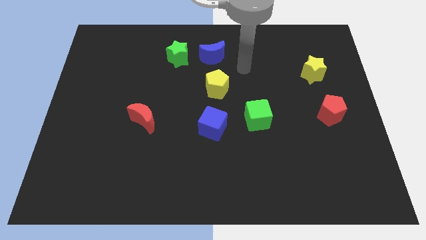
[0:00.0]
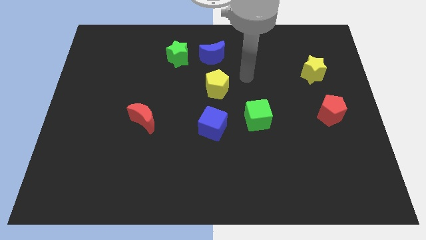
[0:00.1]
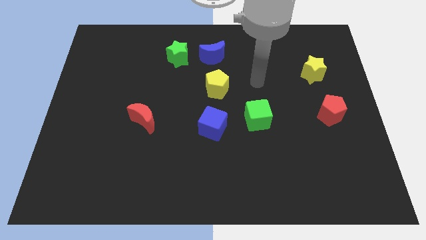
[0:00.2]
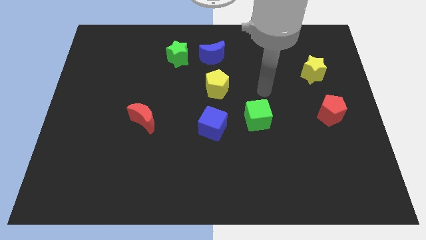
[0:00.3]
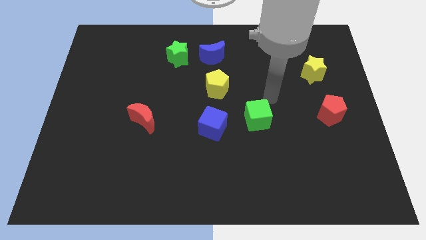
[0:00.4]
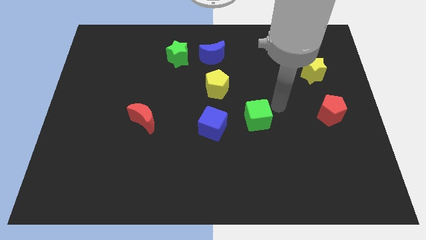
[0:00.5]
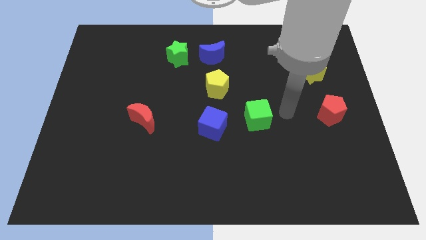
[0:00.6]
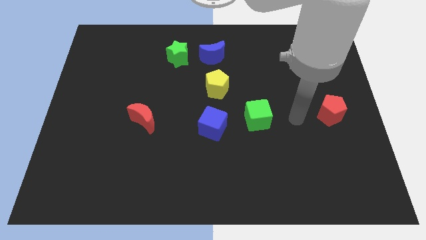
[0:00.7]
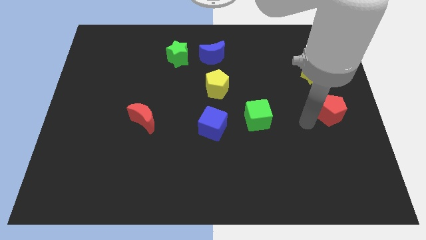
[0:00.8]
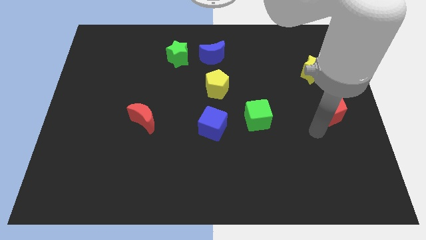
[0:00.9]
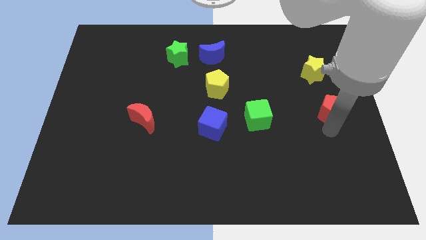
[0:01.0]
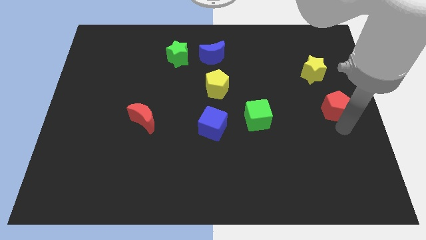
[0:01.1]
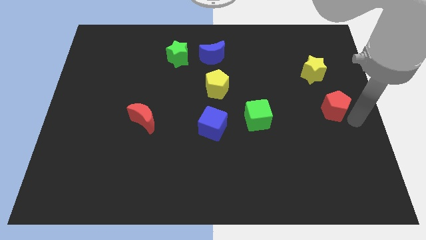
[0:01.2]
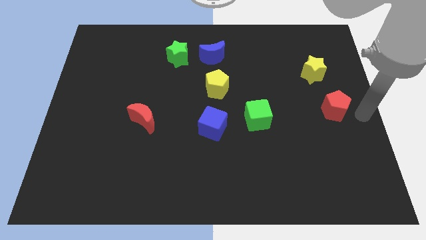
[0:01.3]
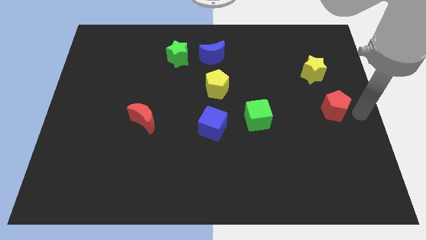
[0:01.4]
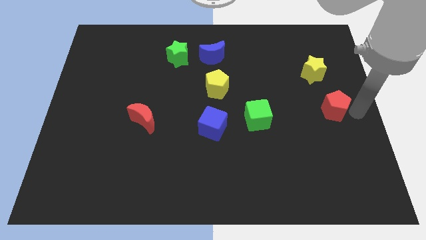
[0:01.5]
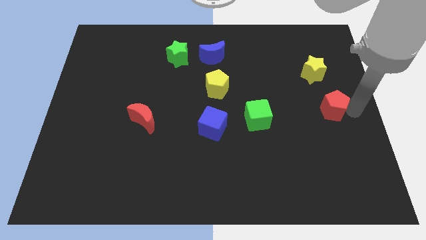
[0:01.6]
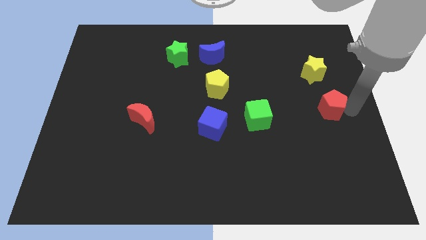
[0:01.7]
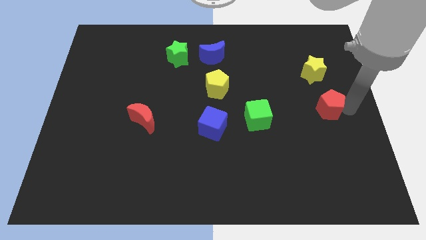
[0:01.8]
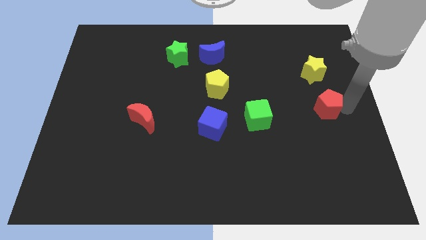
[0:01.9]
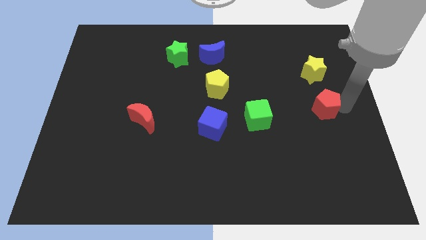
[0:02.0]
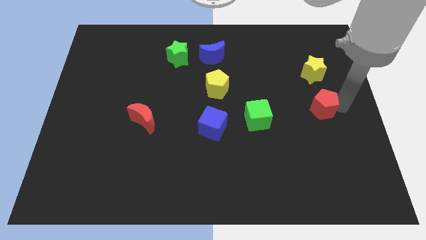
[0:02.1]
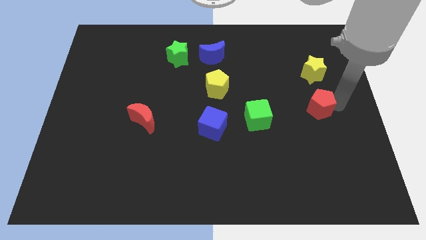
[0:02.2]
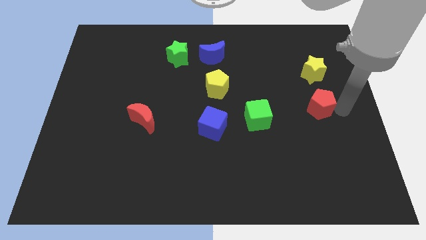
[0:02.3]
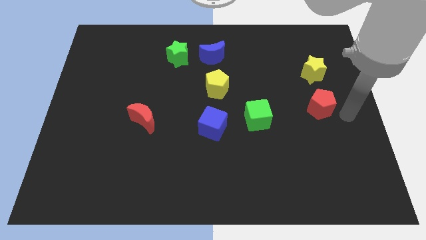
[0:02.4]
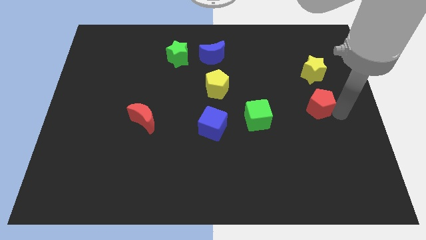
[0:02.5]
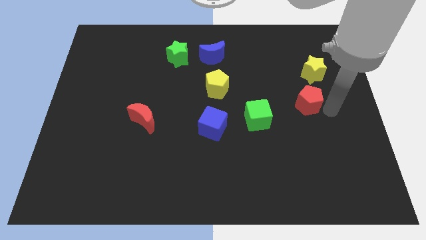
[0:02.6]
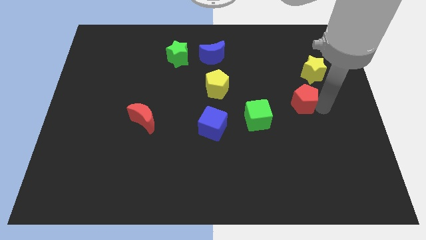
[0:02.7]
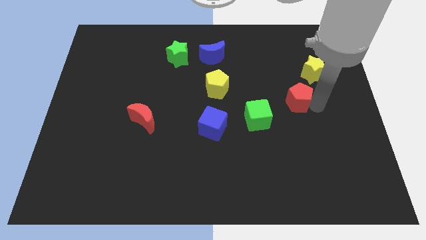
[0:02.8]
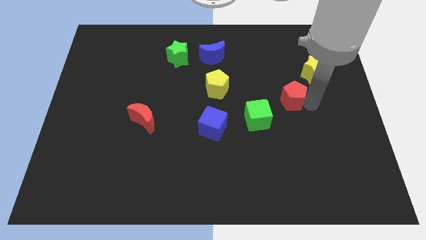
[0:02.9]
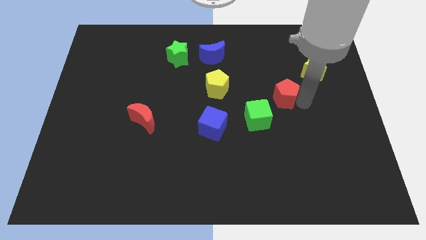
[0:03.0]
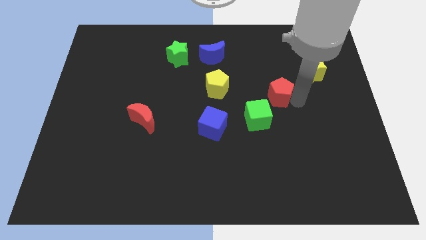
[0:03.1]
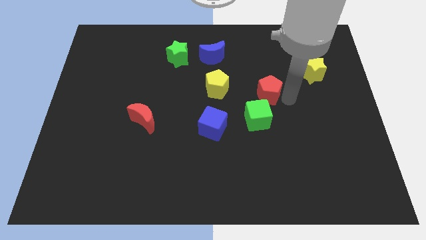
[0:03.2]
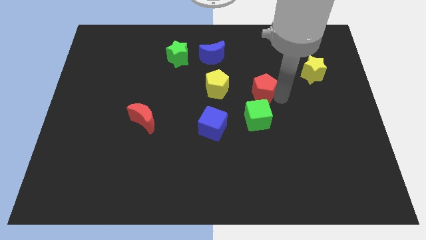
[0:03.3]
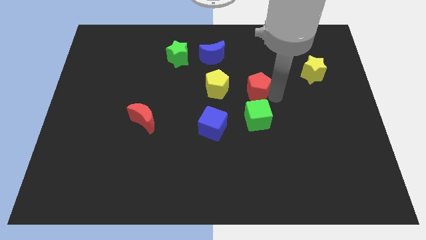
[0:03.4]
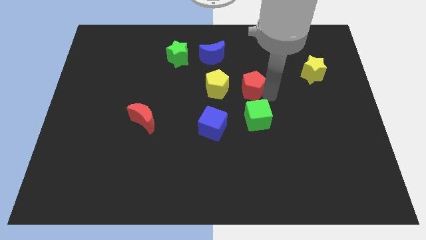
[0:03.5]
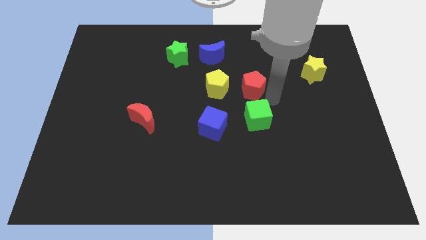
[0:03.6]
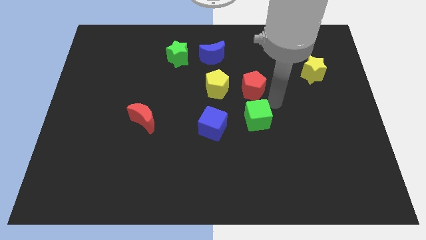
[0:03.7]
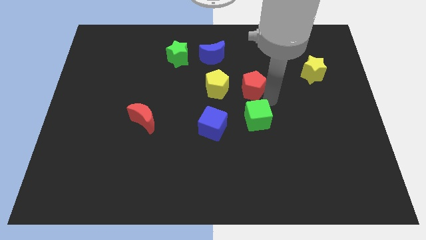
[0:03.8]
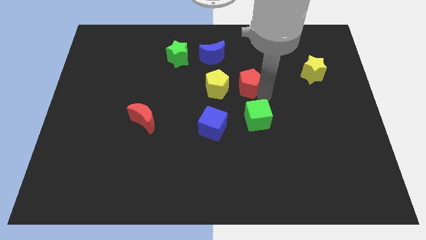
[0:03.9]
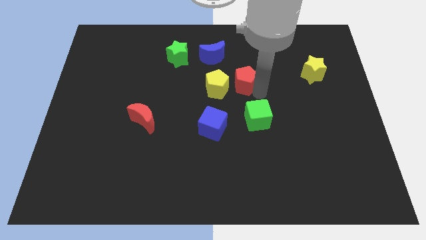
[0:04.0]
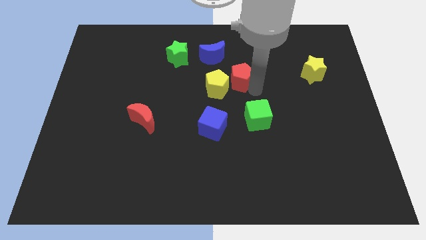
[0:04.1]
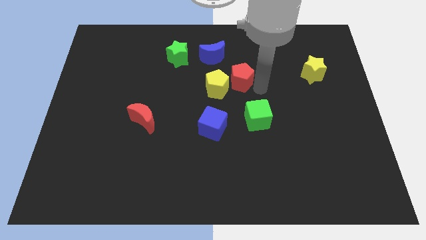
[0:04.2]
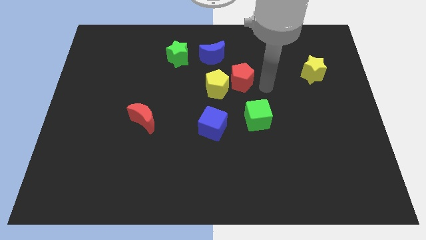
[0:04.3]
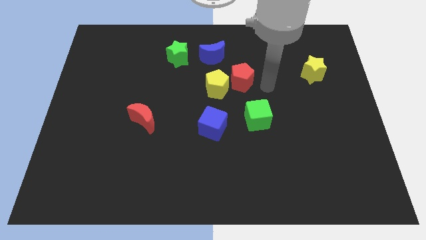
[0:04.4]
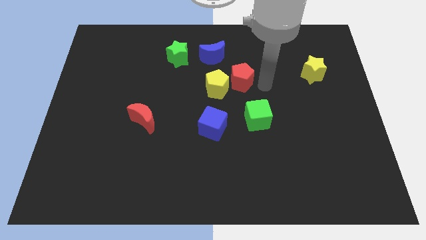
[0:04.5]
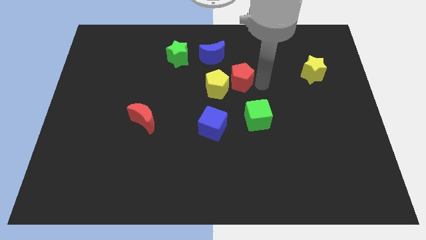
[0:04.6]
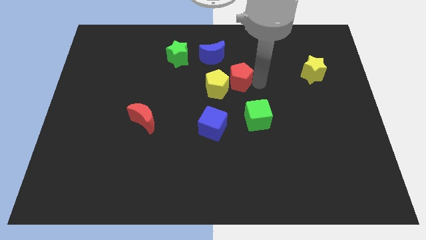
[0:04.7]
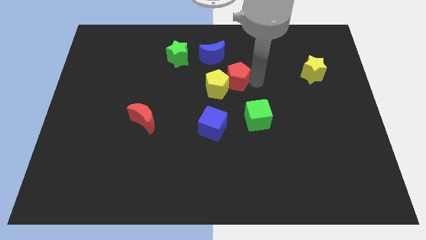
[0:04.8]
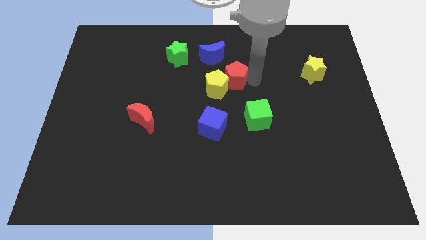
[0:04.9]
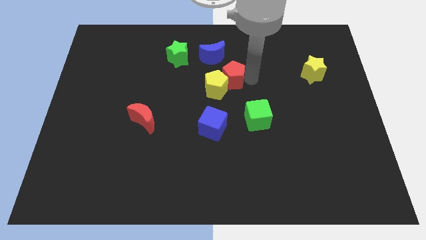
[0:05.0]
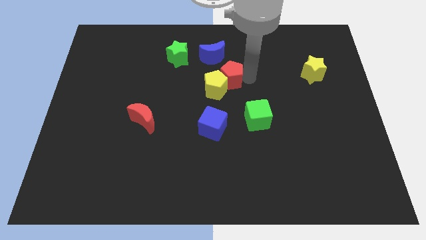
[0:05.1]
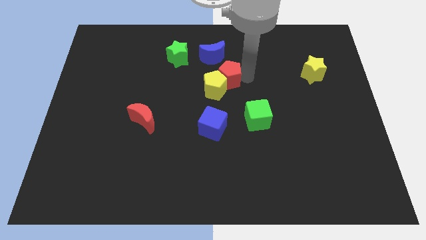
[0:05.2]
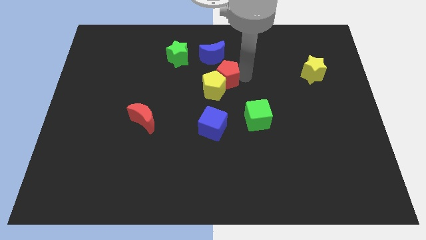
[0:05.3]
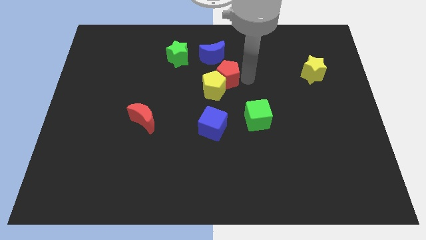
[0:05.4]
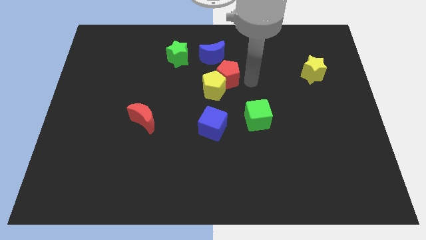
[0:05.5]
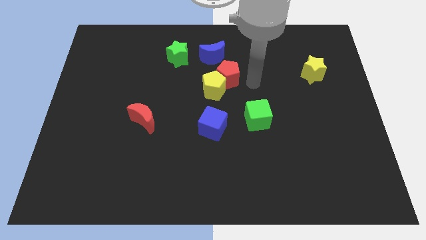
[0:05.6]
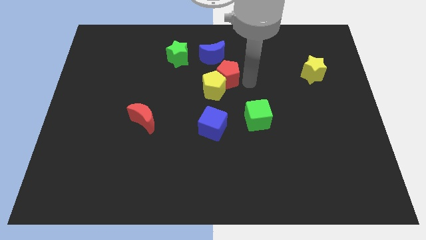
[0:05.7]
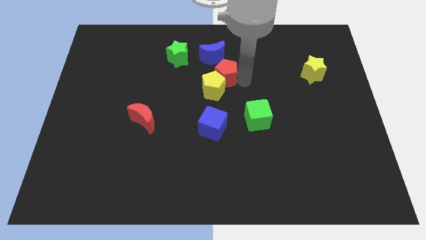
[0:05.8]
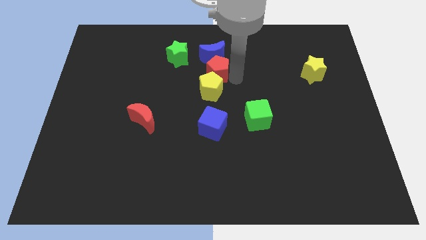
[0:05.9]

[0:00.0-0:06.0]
push the red pentagon diagonally down and to the left of the blue moon
